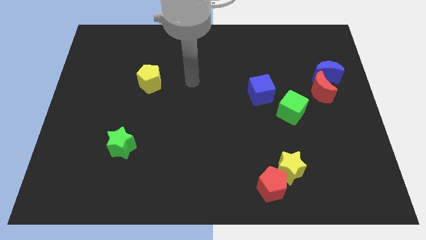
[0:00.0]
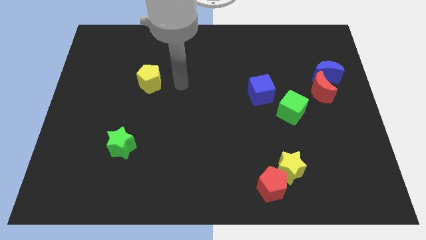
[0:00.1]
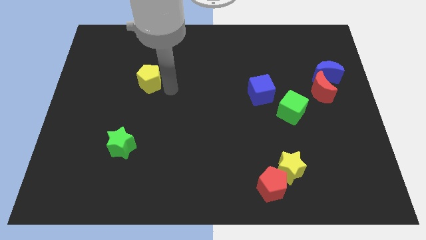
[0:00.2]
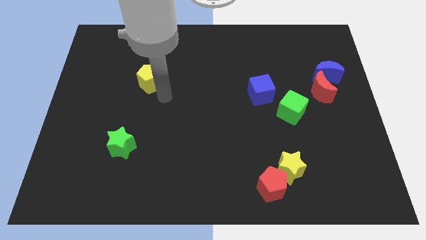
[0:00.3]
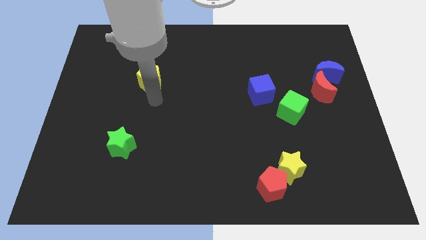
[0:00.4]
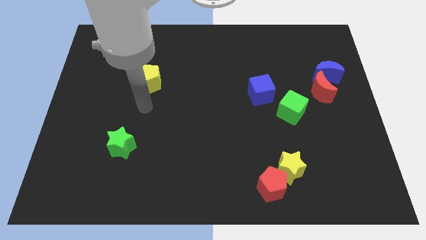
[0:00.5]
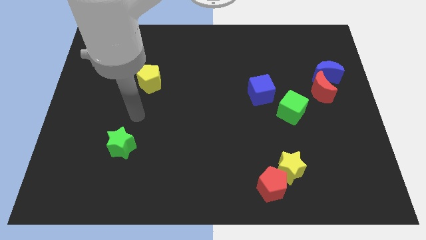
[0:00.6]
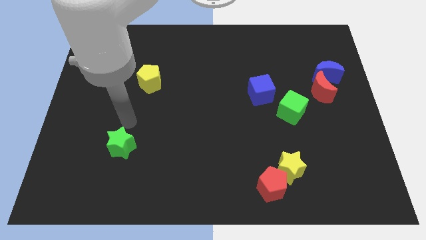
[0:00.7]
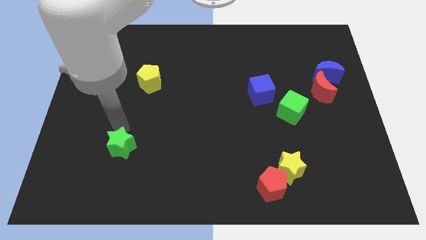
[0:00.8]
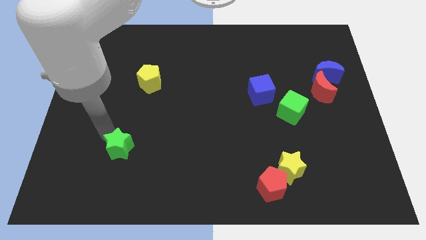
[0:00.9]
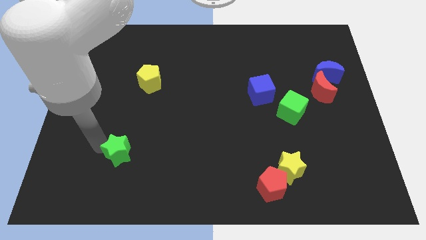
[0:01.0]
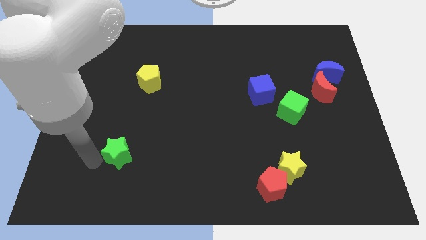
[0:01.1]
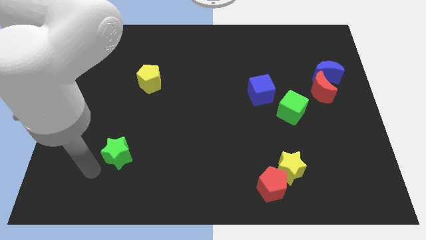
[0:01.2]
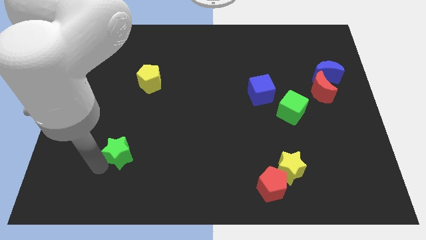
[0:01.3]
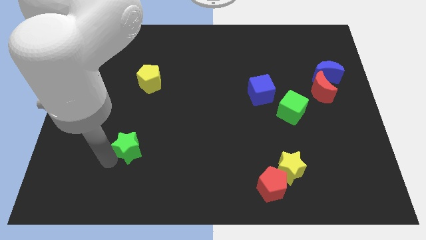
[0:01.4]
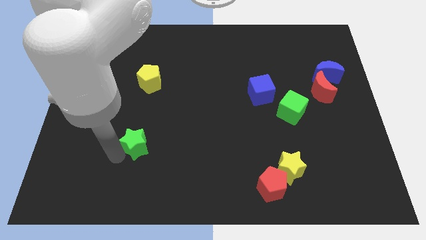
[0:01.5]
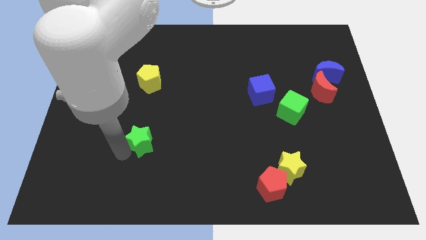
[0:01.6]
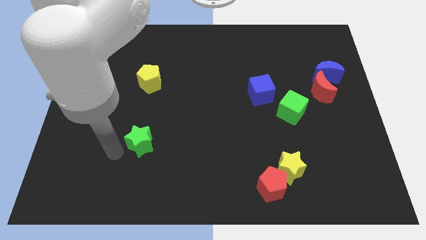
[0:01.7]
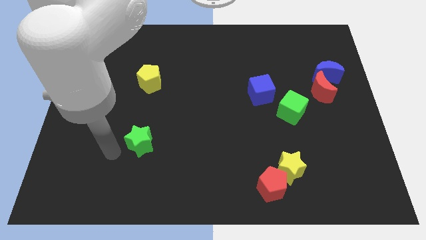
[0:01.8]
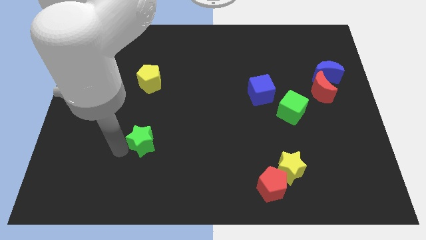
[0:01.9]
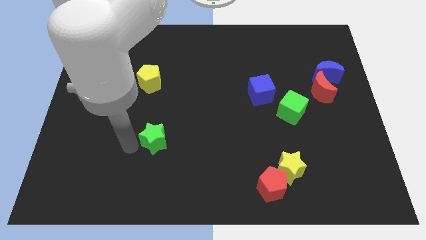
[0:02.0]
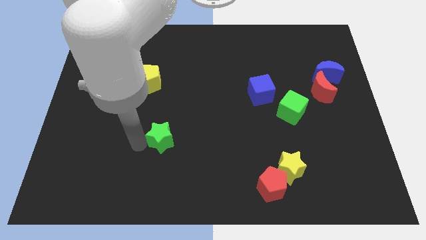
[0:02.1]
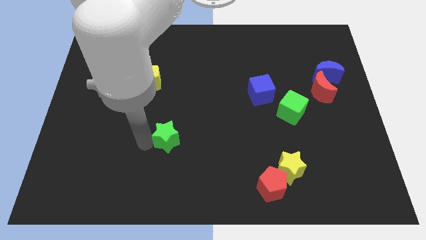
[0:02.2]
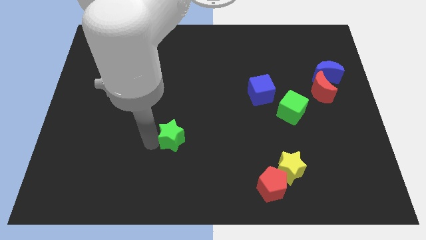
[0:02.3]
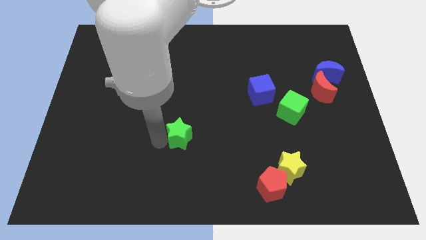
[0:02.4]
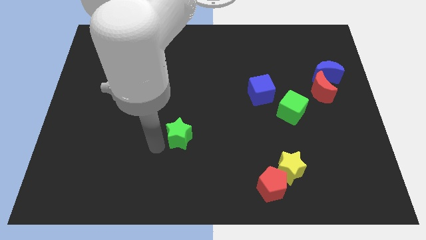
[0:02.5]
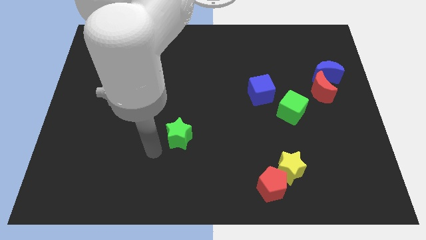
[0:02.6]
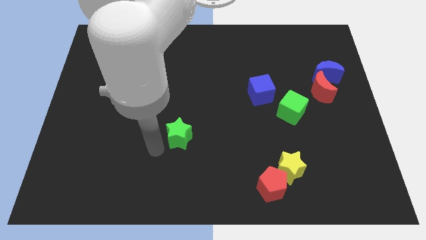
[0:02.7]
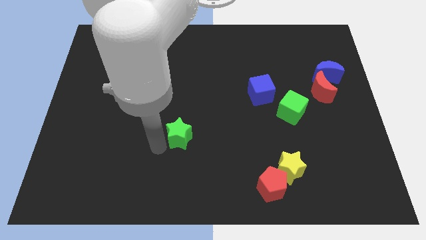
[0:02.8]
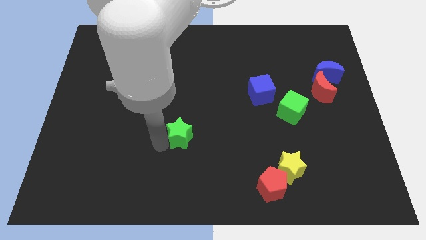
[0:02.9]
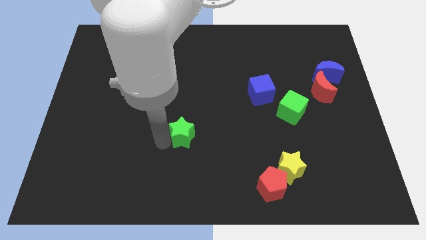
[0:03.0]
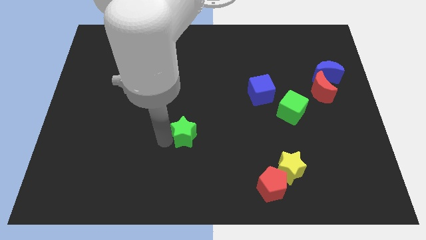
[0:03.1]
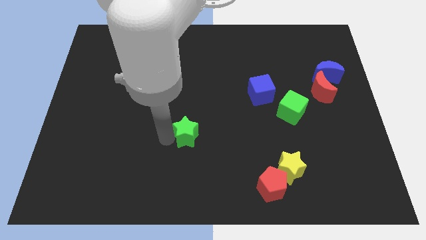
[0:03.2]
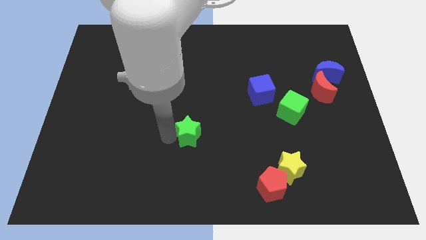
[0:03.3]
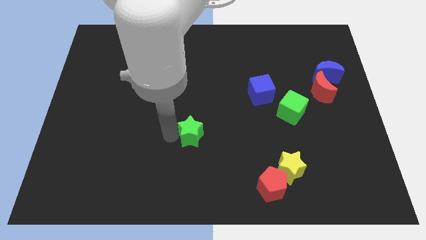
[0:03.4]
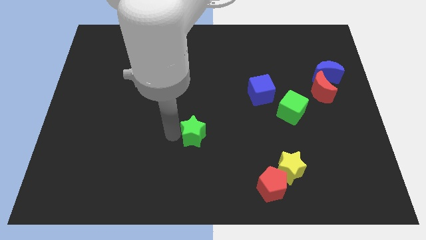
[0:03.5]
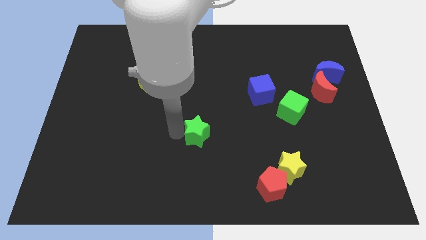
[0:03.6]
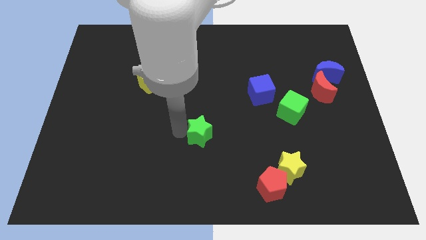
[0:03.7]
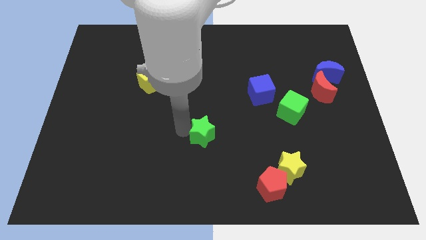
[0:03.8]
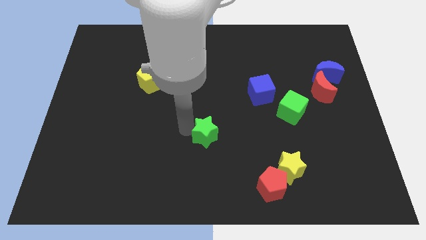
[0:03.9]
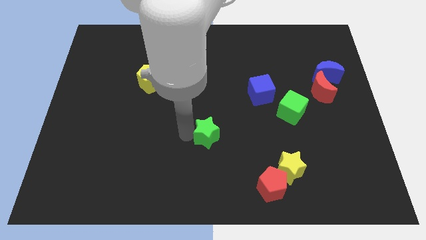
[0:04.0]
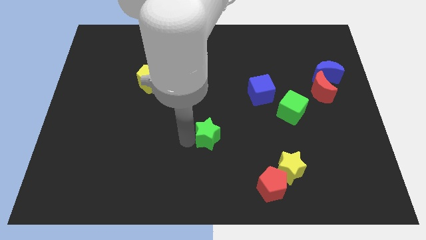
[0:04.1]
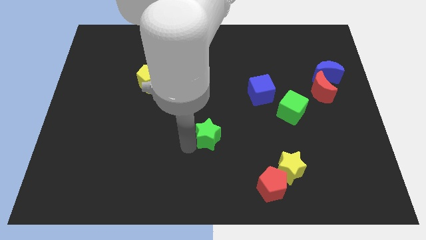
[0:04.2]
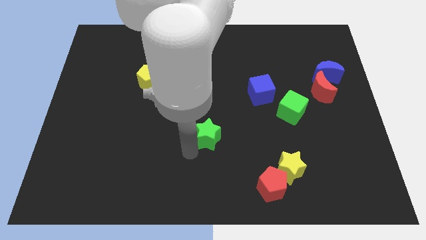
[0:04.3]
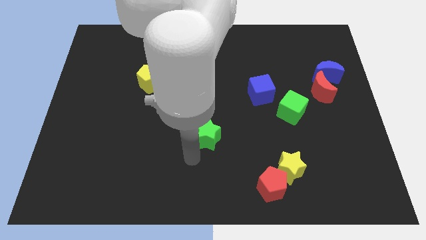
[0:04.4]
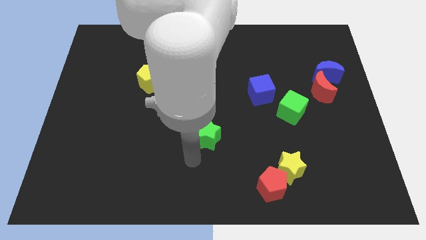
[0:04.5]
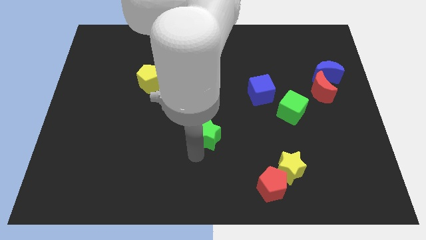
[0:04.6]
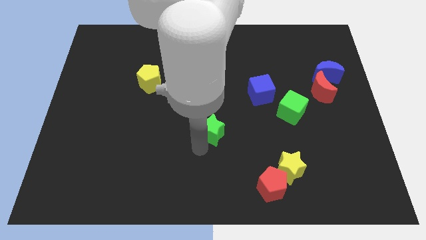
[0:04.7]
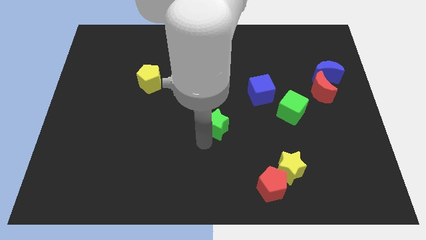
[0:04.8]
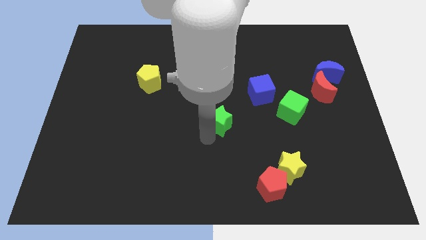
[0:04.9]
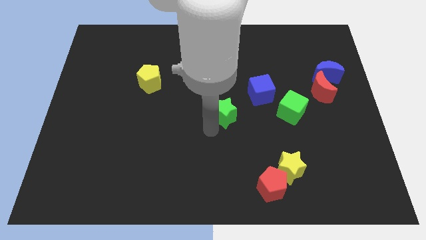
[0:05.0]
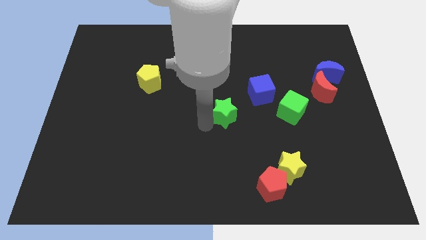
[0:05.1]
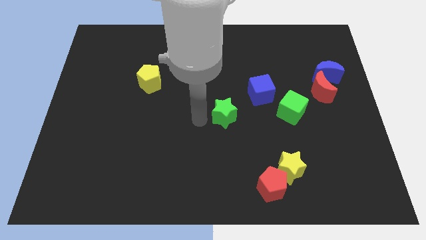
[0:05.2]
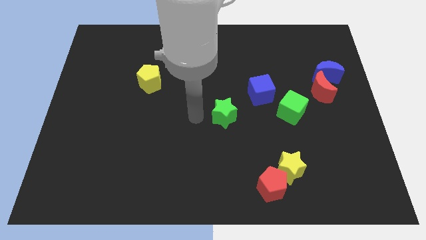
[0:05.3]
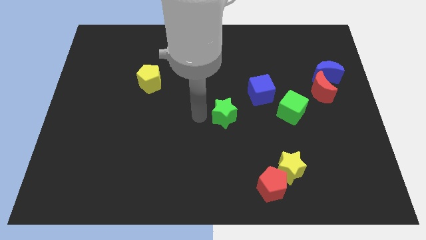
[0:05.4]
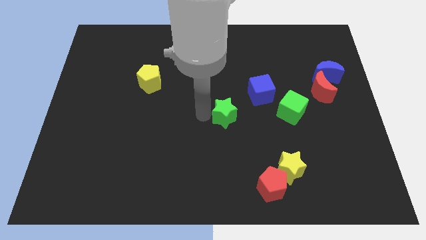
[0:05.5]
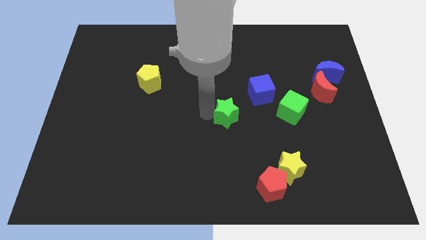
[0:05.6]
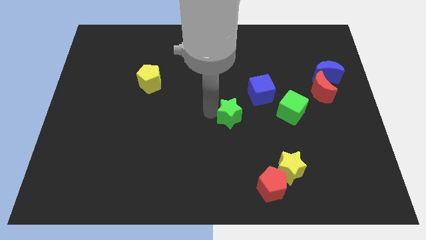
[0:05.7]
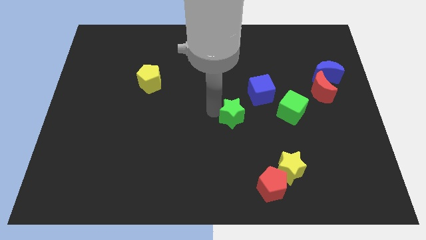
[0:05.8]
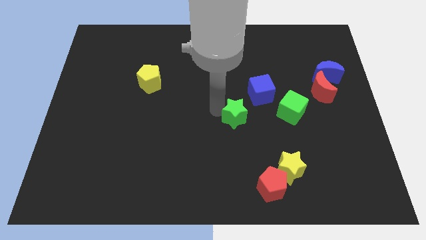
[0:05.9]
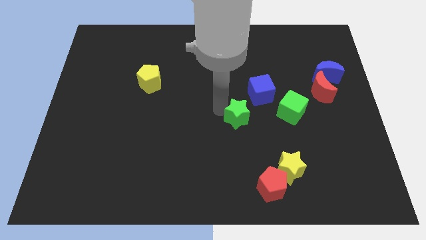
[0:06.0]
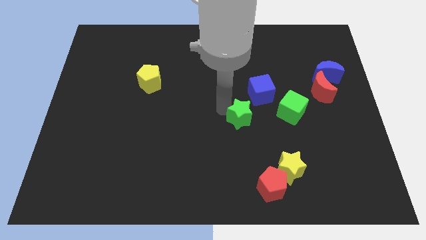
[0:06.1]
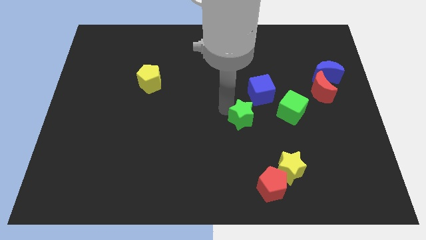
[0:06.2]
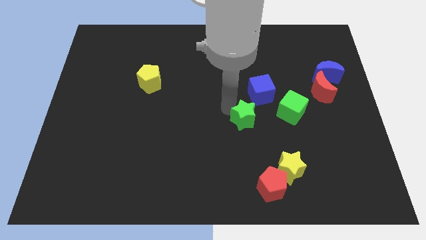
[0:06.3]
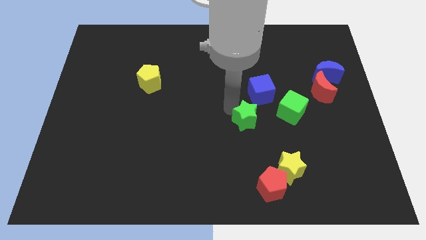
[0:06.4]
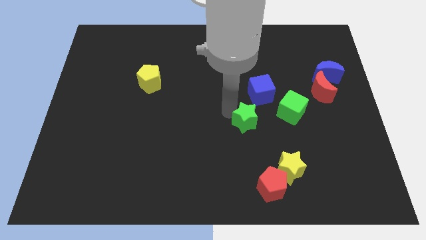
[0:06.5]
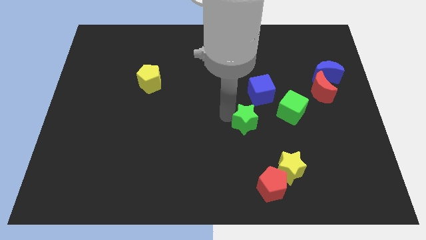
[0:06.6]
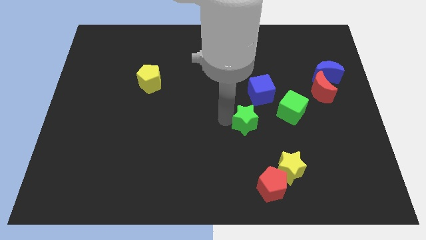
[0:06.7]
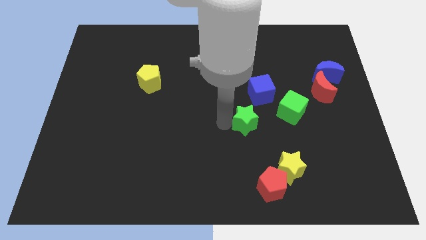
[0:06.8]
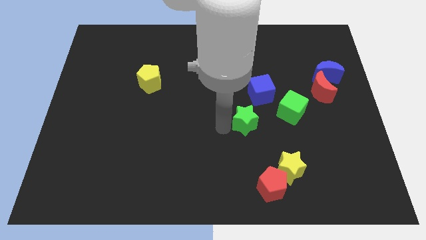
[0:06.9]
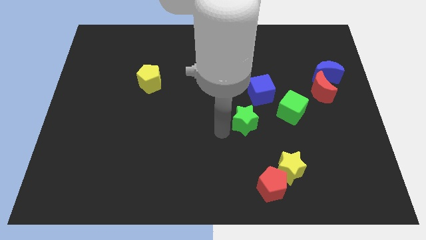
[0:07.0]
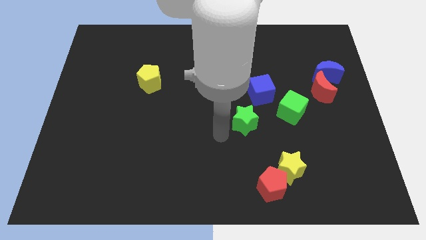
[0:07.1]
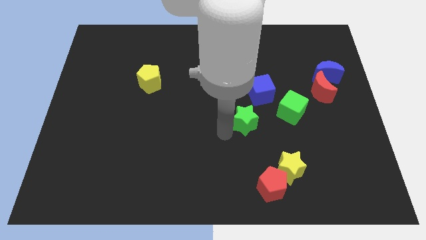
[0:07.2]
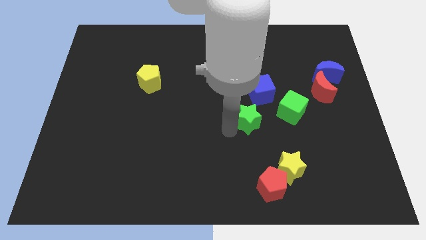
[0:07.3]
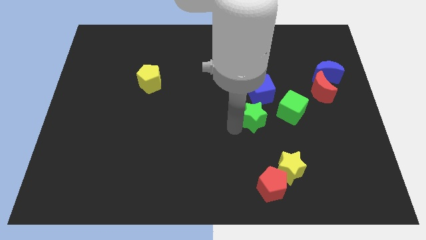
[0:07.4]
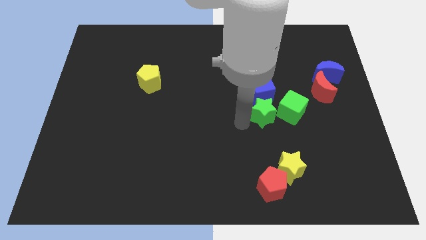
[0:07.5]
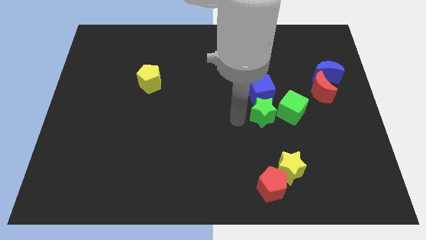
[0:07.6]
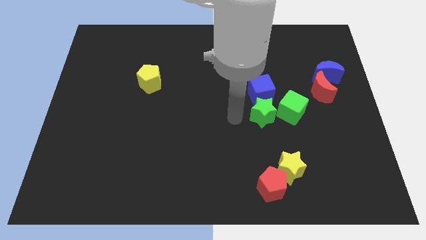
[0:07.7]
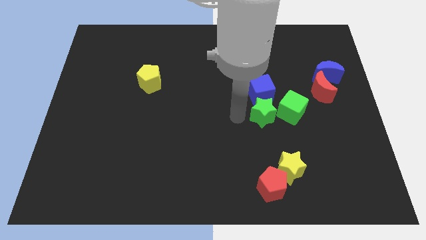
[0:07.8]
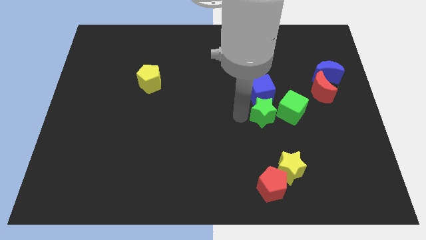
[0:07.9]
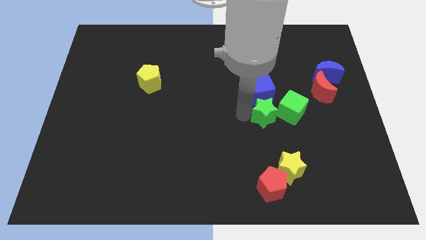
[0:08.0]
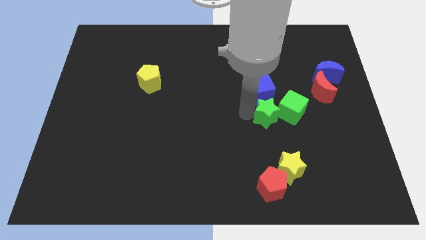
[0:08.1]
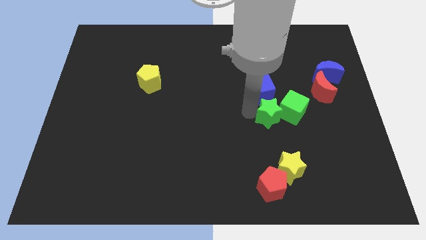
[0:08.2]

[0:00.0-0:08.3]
put the green star next to the green cube
